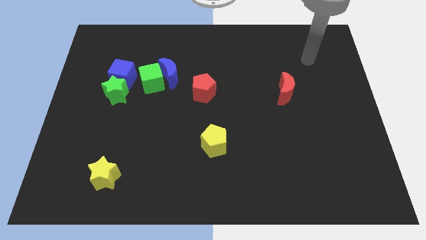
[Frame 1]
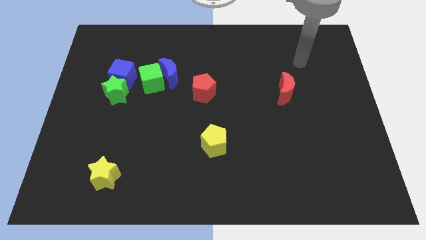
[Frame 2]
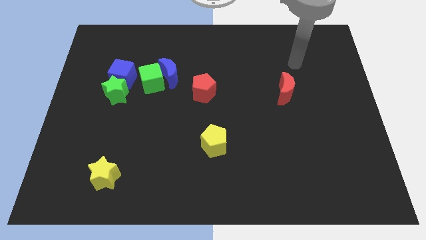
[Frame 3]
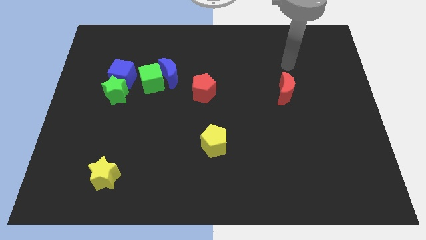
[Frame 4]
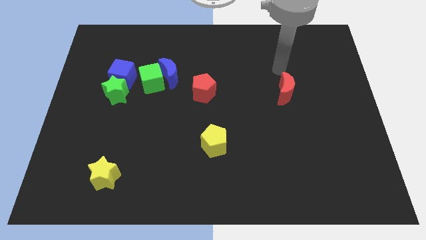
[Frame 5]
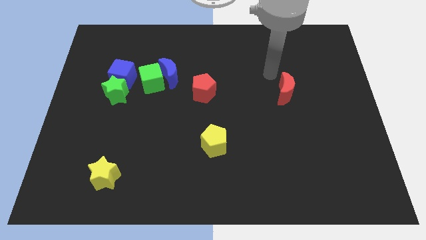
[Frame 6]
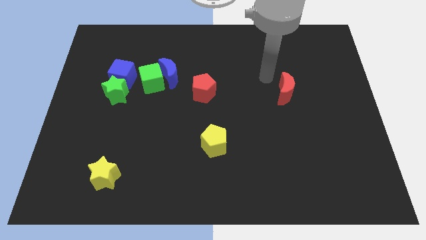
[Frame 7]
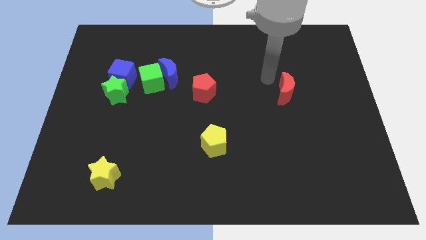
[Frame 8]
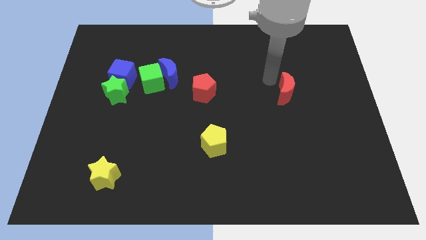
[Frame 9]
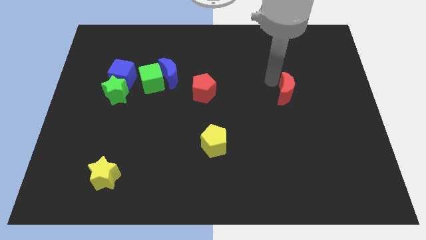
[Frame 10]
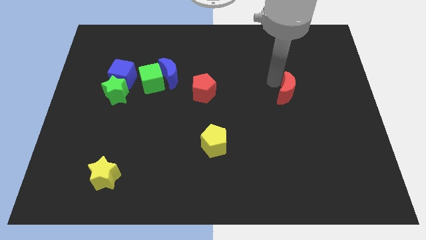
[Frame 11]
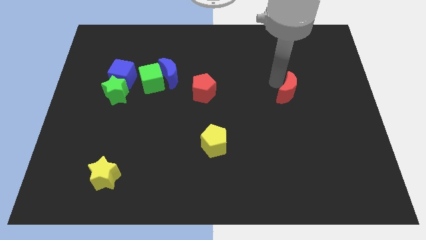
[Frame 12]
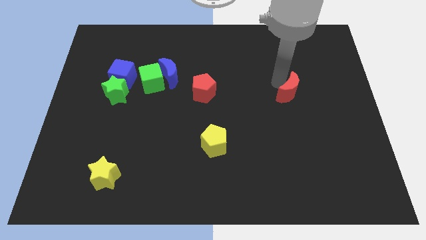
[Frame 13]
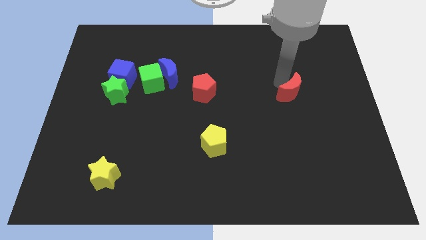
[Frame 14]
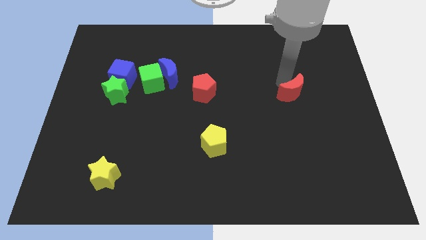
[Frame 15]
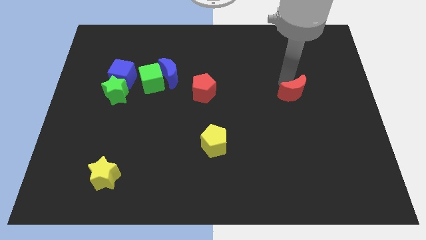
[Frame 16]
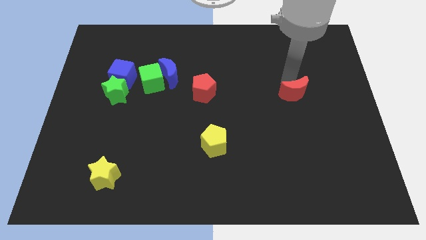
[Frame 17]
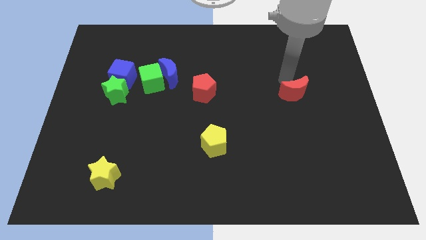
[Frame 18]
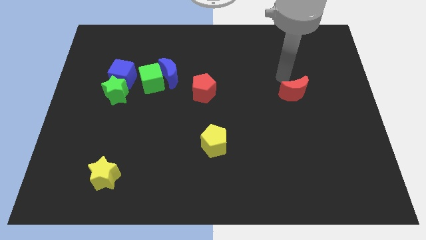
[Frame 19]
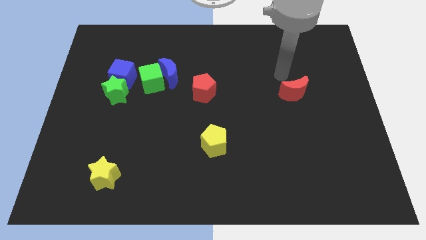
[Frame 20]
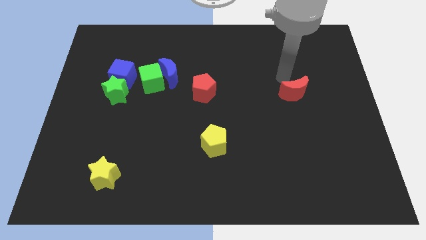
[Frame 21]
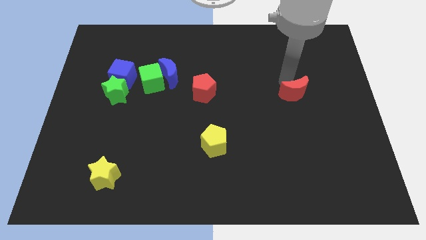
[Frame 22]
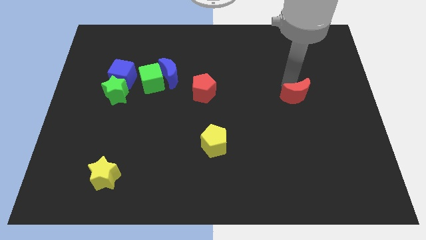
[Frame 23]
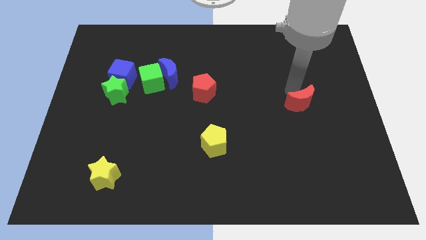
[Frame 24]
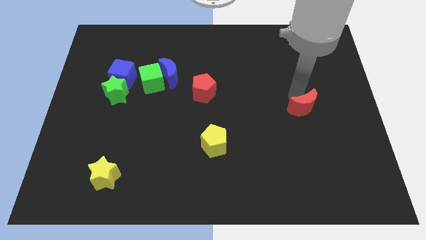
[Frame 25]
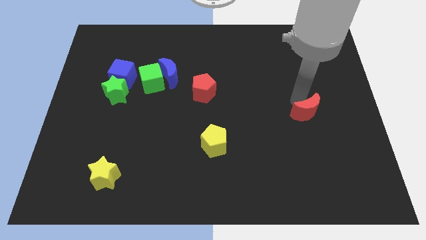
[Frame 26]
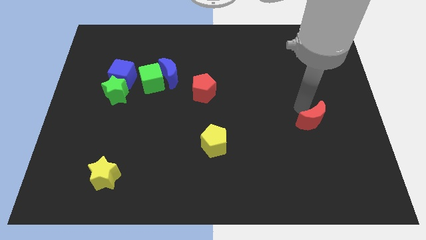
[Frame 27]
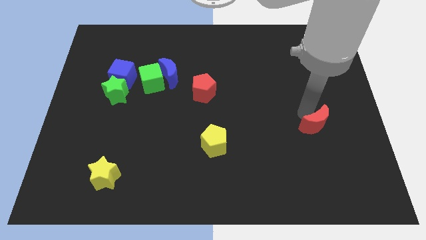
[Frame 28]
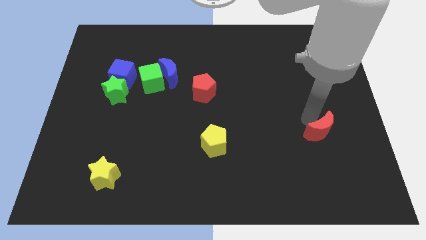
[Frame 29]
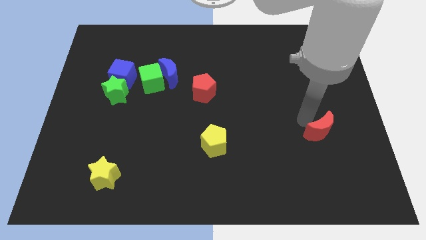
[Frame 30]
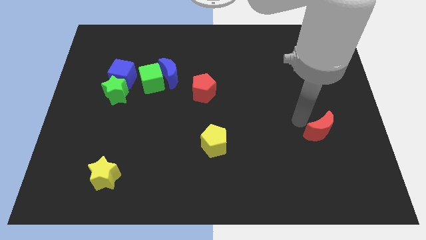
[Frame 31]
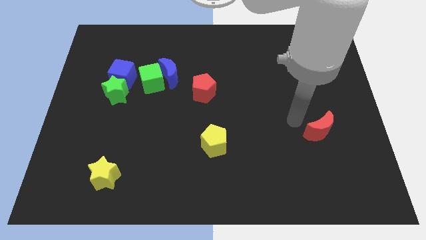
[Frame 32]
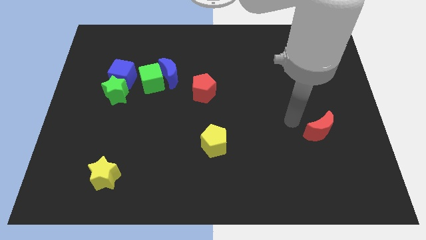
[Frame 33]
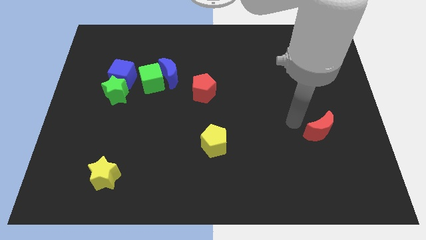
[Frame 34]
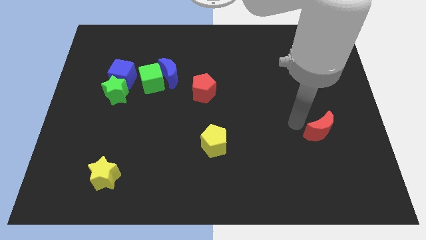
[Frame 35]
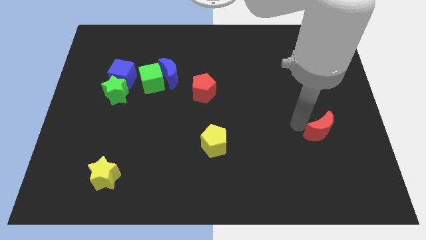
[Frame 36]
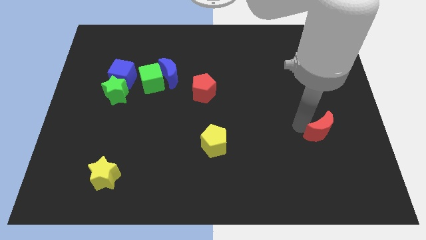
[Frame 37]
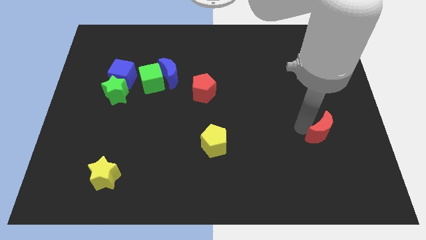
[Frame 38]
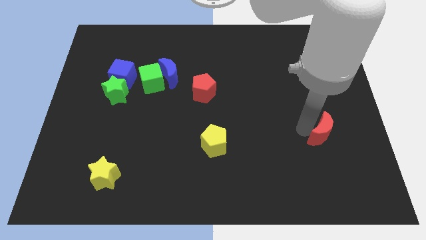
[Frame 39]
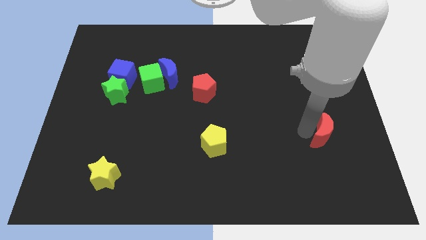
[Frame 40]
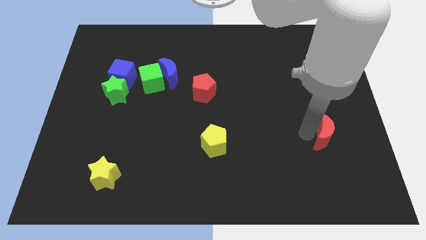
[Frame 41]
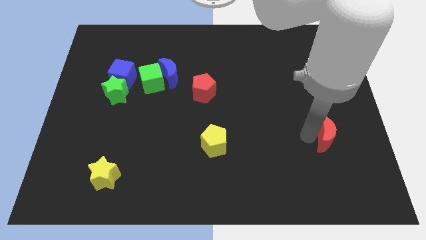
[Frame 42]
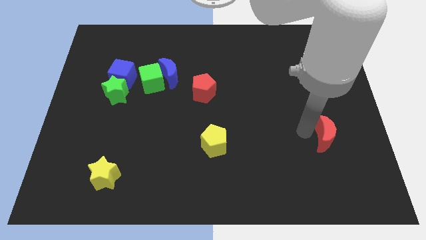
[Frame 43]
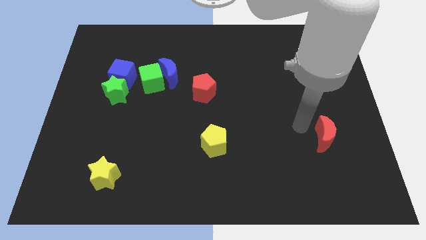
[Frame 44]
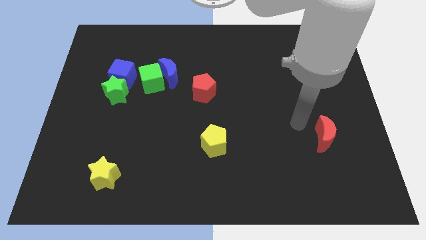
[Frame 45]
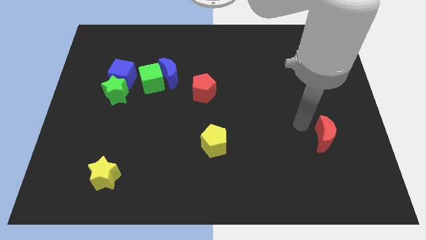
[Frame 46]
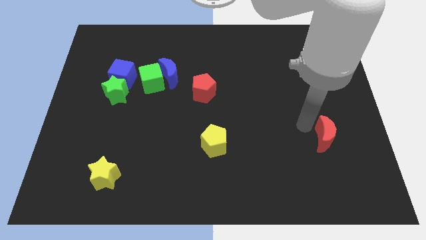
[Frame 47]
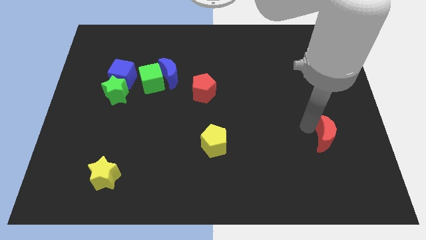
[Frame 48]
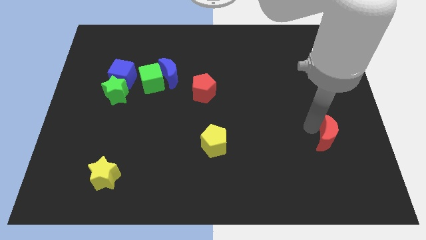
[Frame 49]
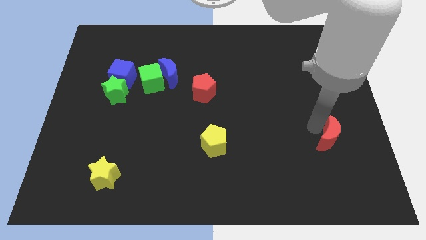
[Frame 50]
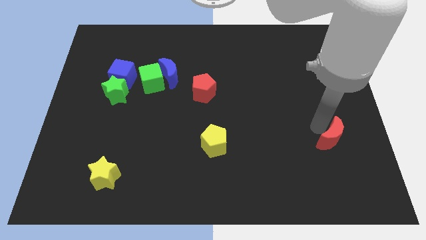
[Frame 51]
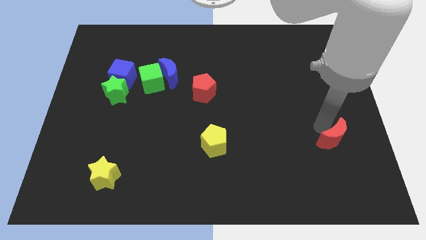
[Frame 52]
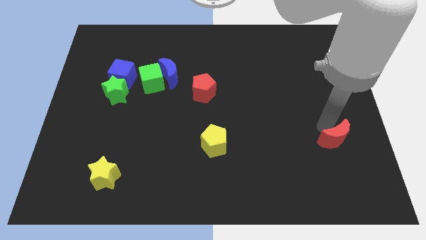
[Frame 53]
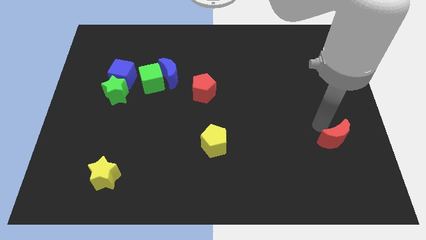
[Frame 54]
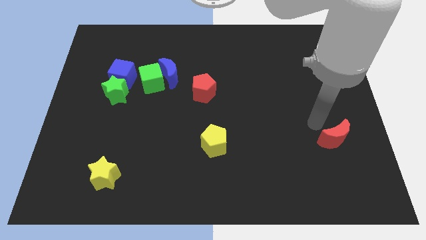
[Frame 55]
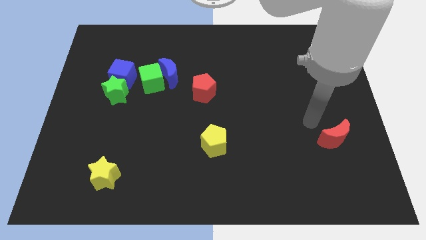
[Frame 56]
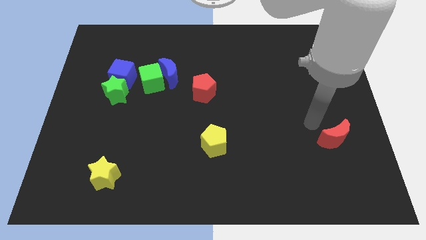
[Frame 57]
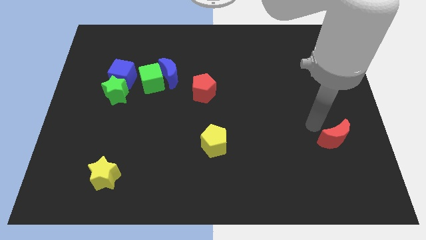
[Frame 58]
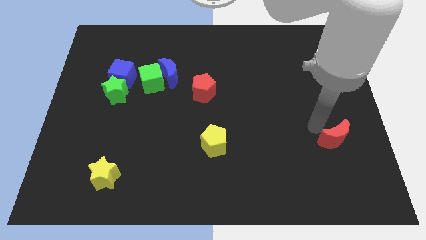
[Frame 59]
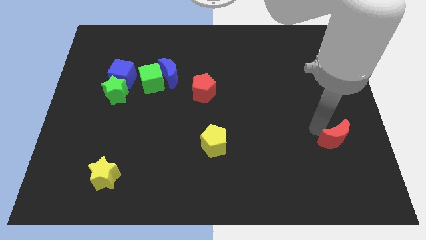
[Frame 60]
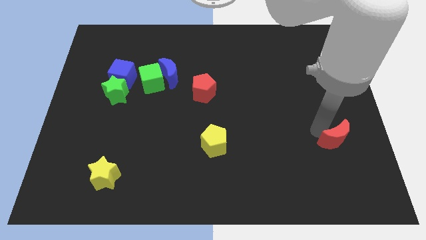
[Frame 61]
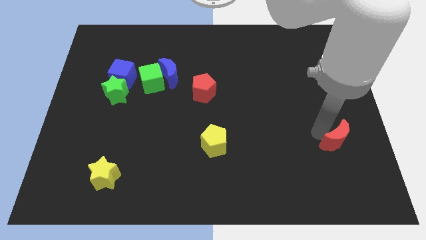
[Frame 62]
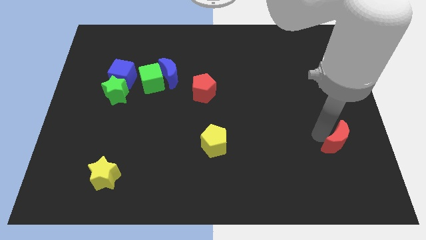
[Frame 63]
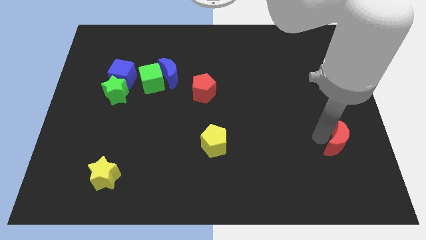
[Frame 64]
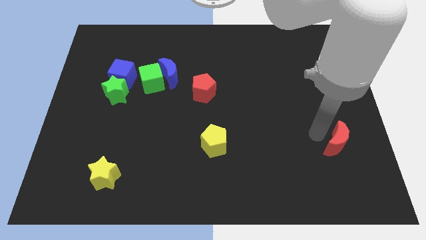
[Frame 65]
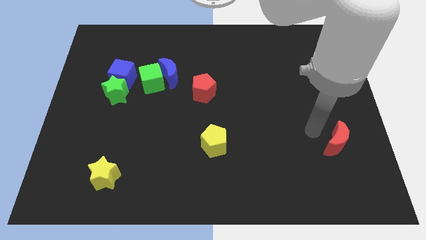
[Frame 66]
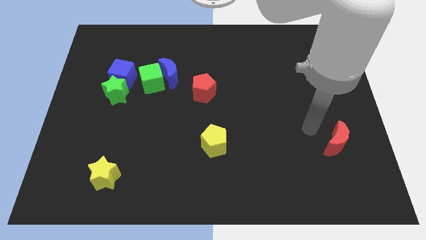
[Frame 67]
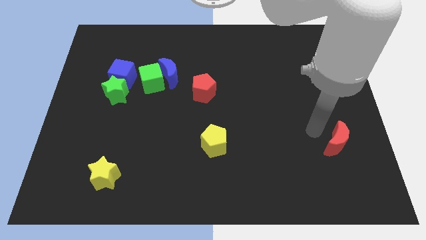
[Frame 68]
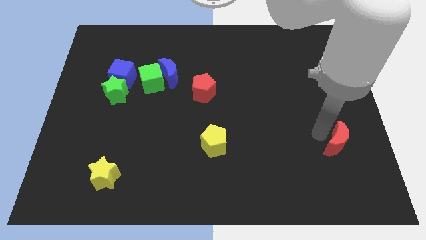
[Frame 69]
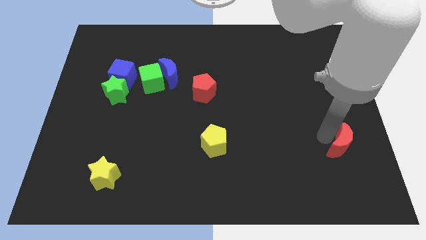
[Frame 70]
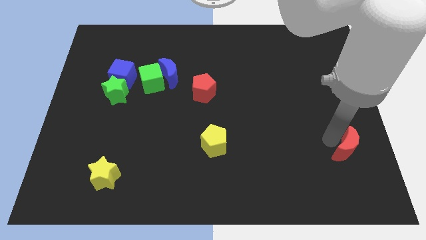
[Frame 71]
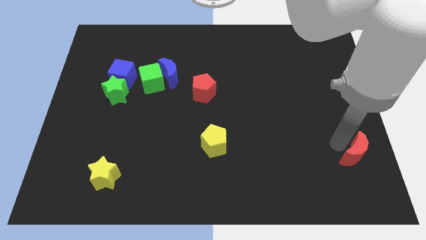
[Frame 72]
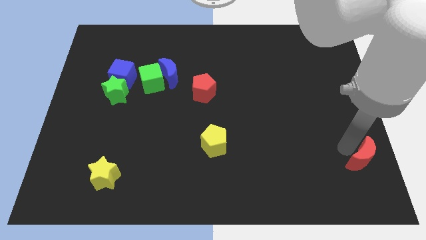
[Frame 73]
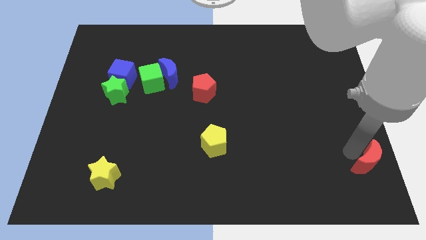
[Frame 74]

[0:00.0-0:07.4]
slide the red moon to the lower right corner
